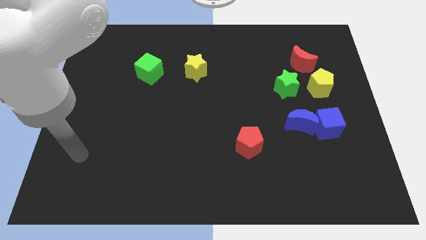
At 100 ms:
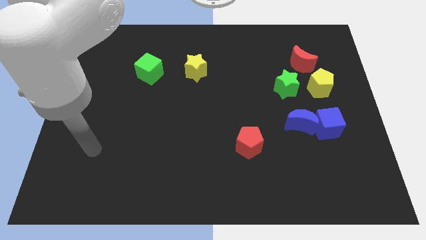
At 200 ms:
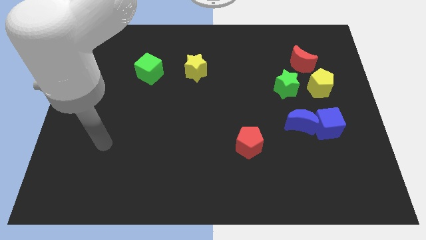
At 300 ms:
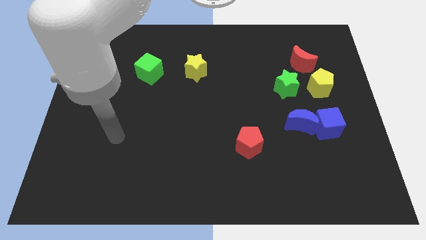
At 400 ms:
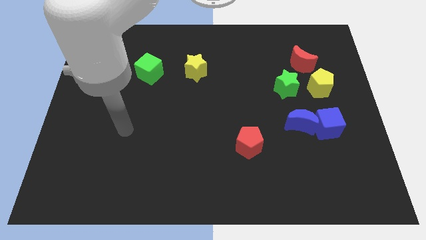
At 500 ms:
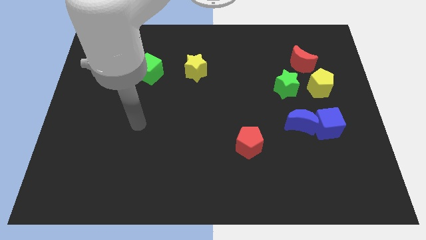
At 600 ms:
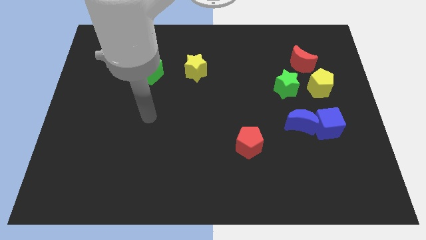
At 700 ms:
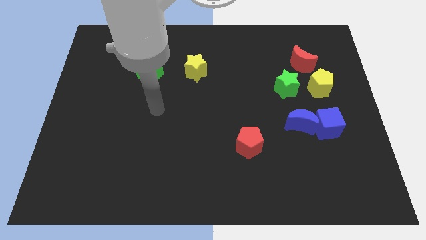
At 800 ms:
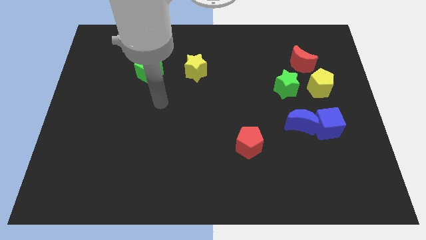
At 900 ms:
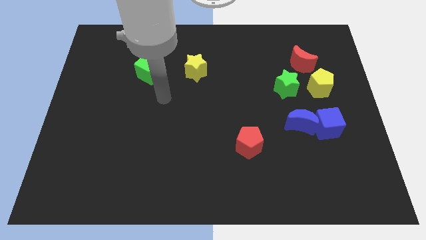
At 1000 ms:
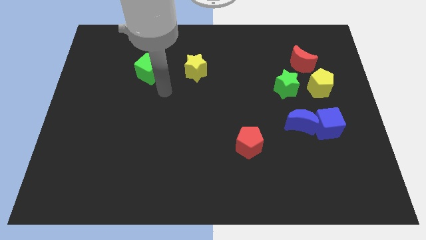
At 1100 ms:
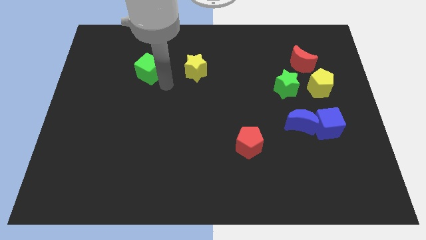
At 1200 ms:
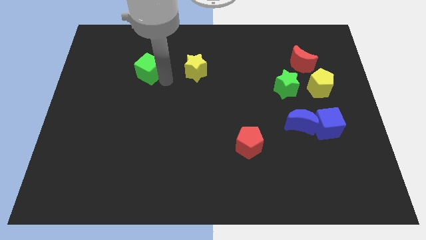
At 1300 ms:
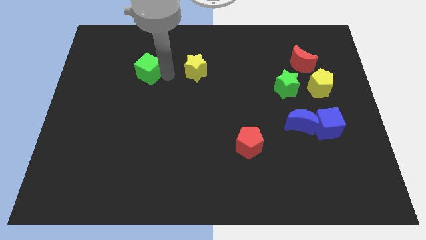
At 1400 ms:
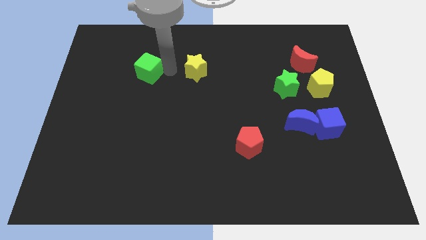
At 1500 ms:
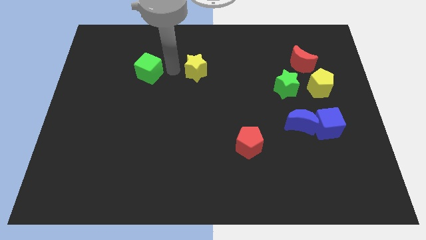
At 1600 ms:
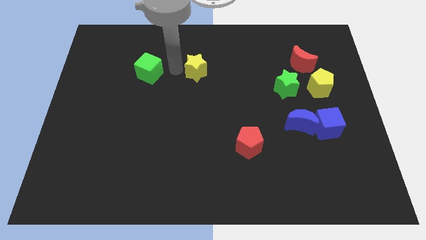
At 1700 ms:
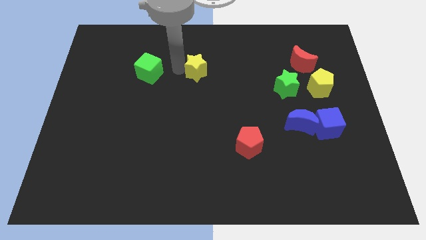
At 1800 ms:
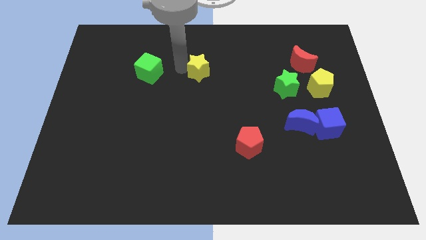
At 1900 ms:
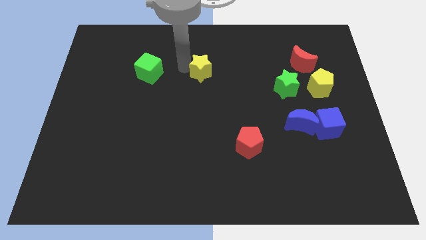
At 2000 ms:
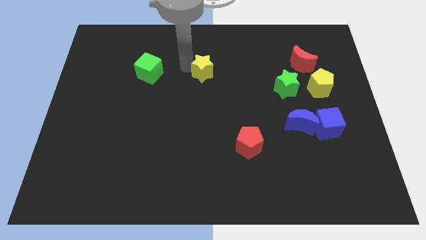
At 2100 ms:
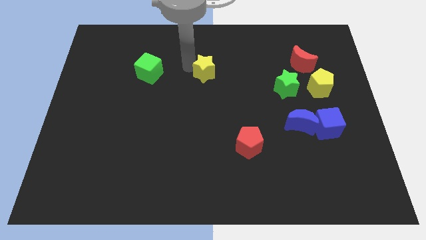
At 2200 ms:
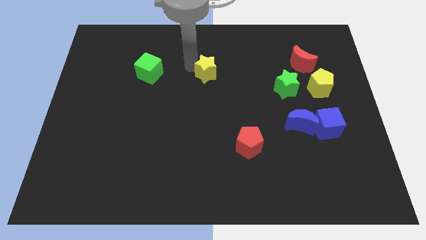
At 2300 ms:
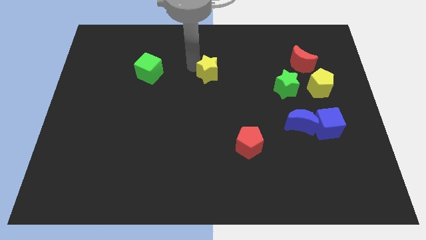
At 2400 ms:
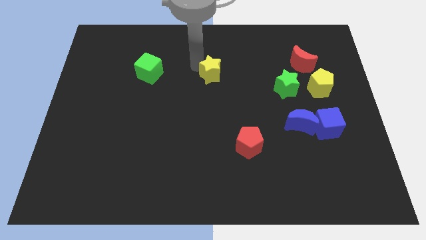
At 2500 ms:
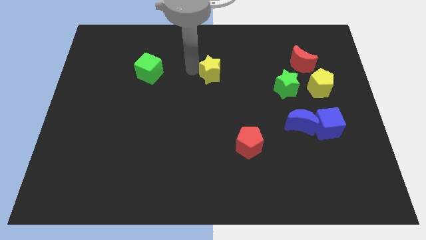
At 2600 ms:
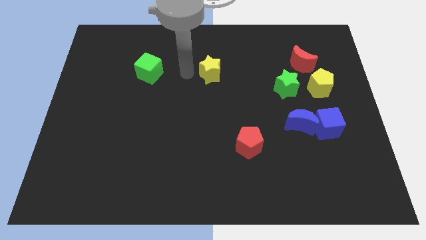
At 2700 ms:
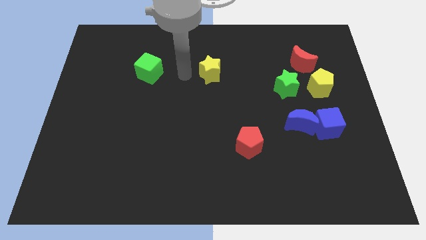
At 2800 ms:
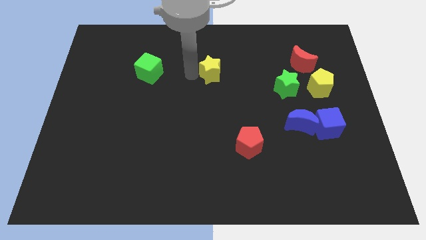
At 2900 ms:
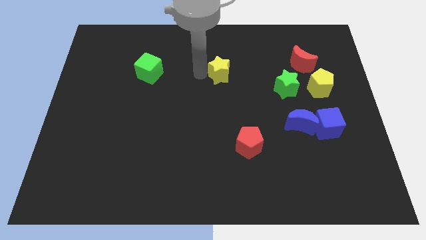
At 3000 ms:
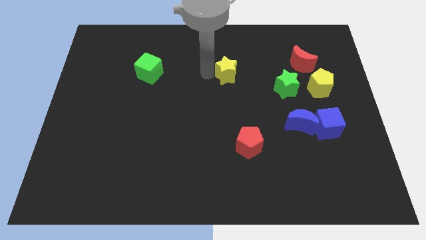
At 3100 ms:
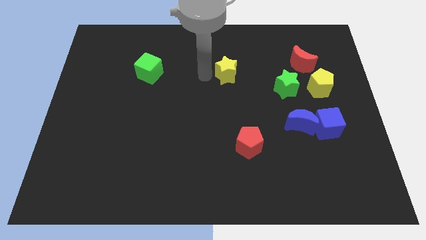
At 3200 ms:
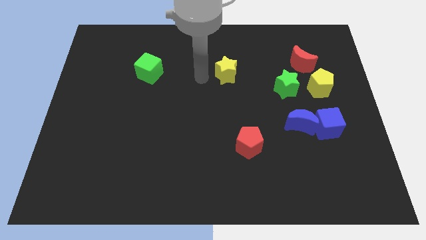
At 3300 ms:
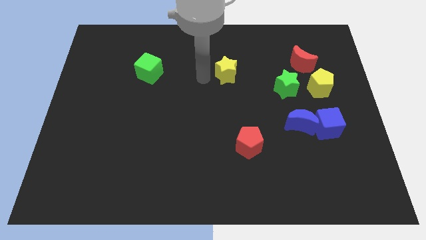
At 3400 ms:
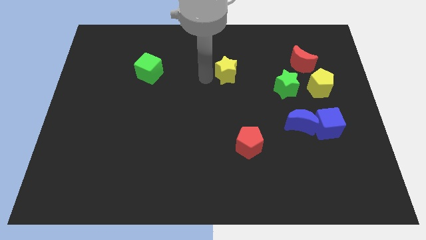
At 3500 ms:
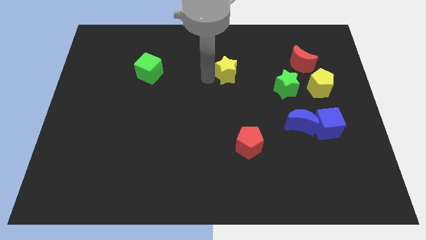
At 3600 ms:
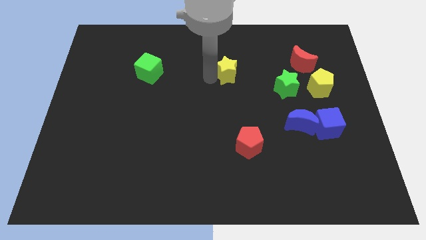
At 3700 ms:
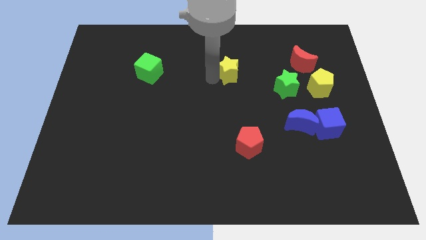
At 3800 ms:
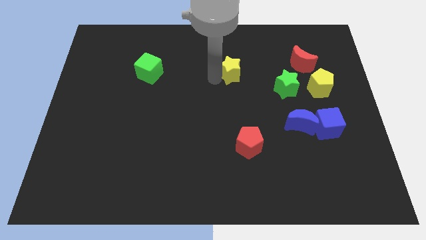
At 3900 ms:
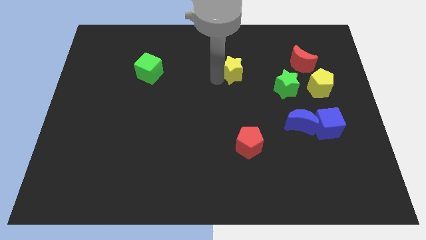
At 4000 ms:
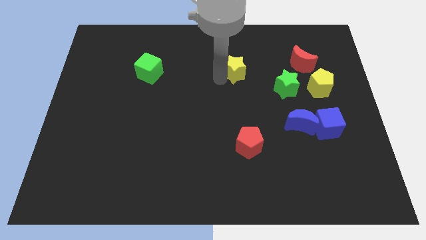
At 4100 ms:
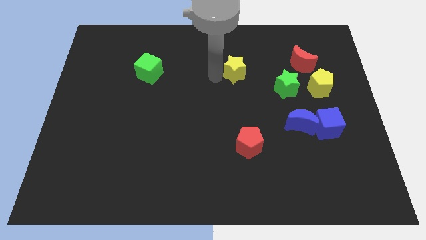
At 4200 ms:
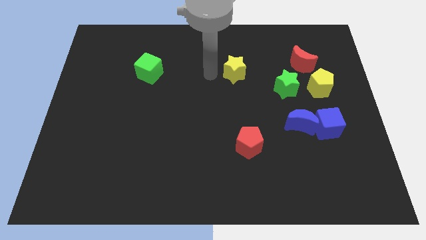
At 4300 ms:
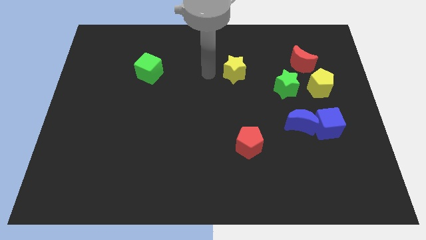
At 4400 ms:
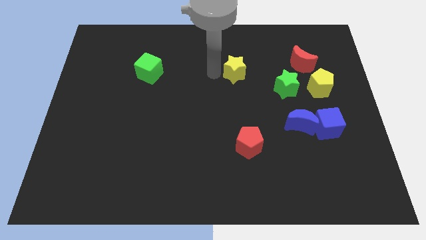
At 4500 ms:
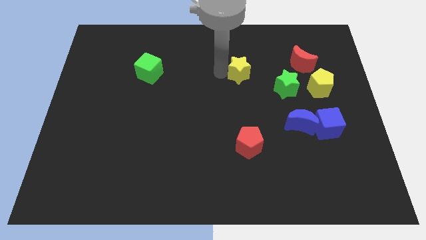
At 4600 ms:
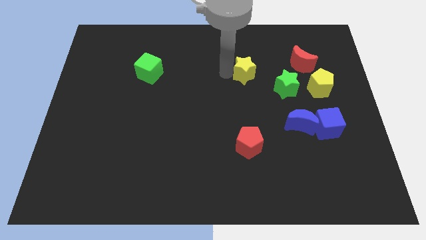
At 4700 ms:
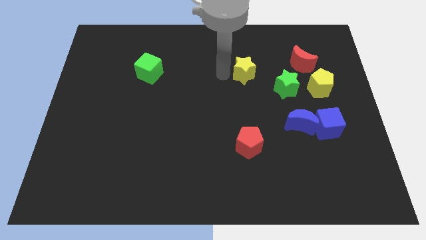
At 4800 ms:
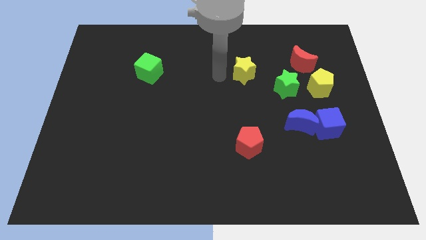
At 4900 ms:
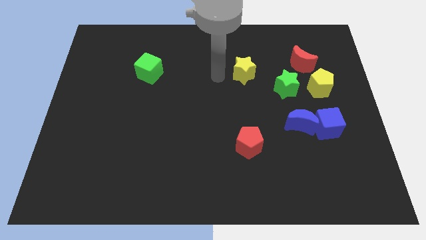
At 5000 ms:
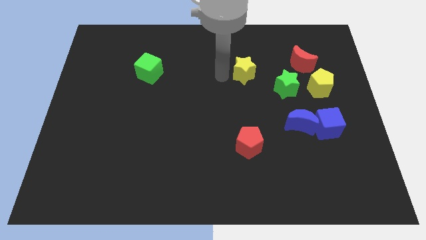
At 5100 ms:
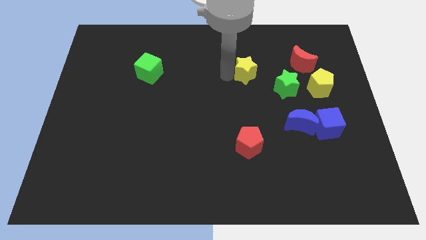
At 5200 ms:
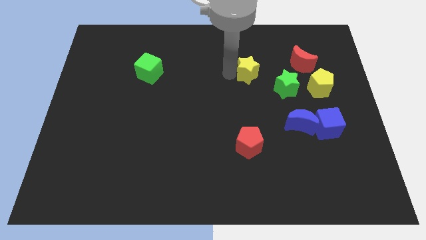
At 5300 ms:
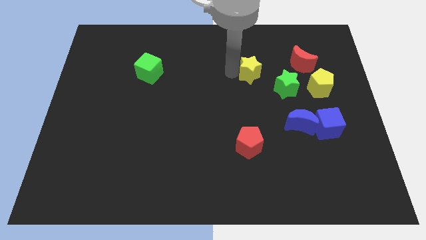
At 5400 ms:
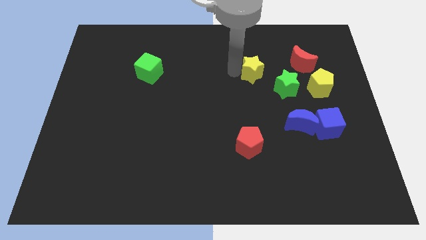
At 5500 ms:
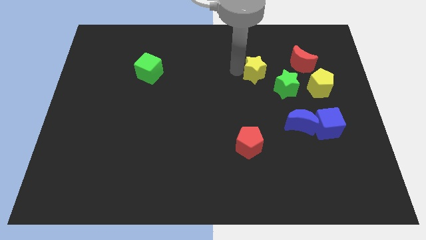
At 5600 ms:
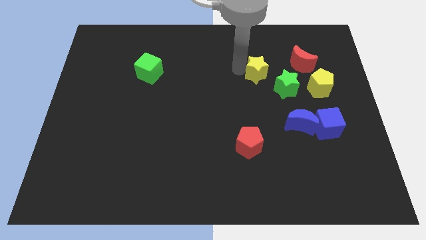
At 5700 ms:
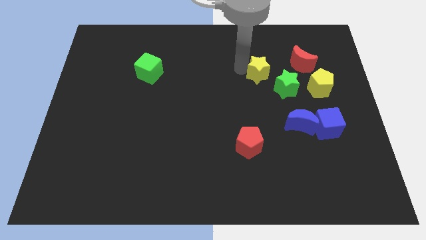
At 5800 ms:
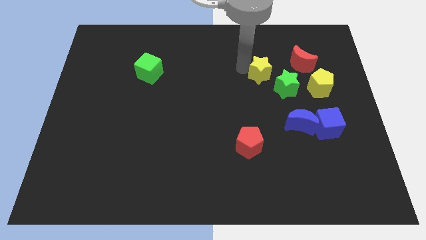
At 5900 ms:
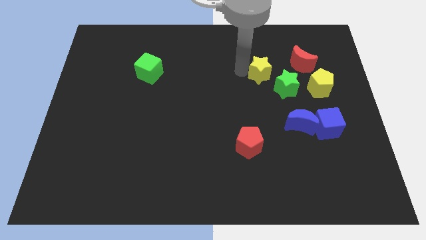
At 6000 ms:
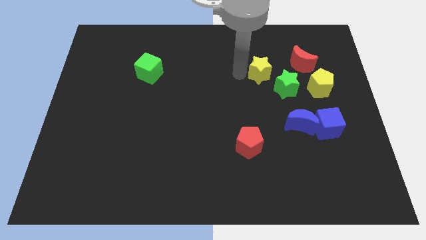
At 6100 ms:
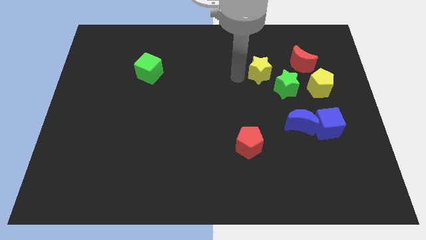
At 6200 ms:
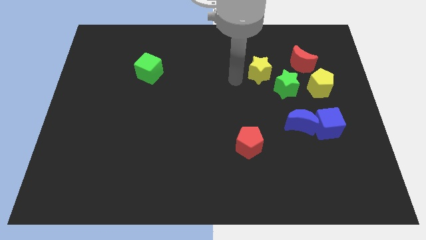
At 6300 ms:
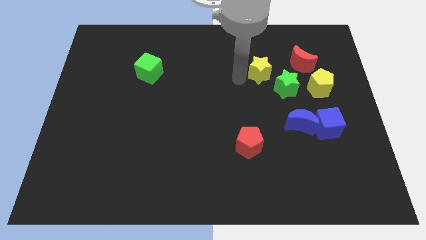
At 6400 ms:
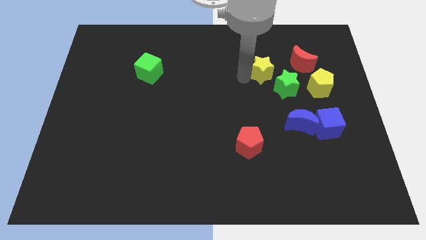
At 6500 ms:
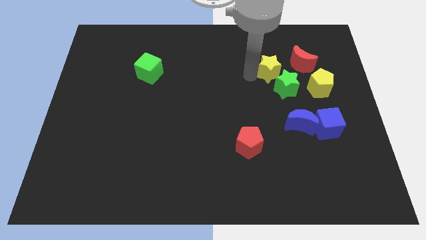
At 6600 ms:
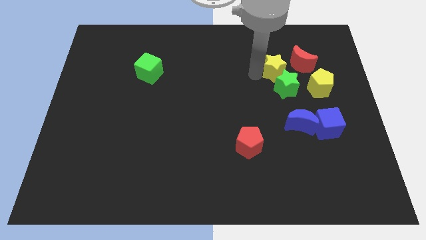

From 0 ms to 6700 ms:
slide the yellow star right

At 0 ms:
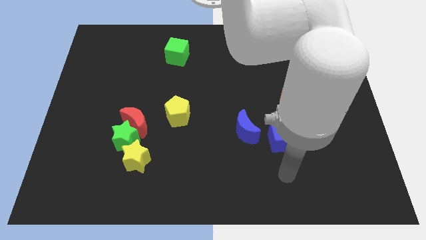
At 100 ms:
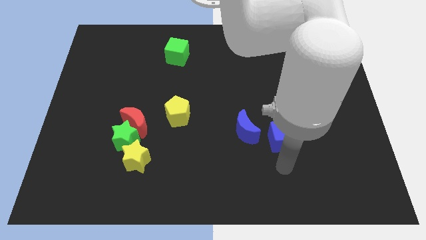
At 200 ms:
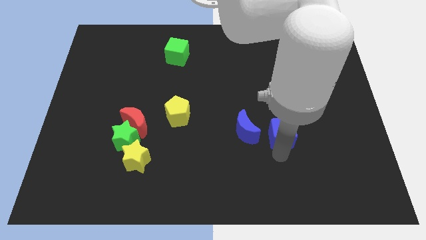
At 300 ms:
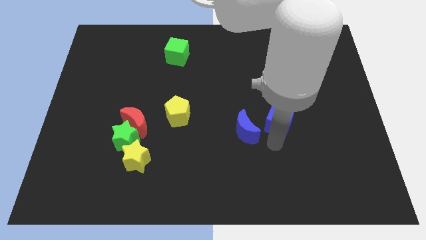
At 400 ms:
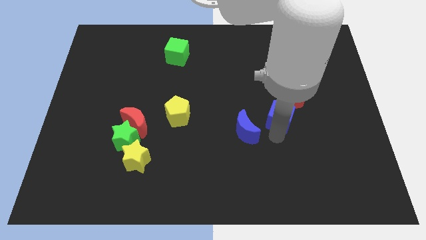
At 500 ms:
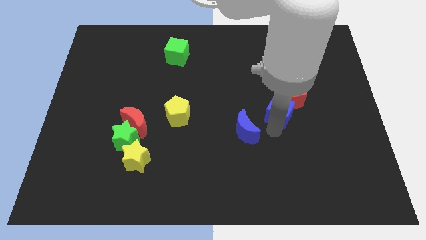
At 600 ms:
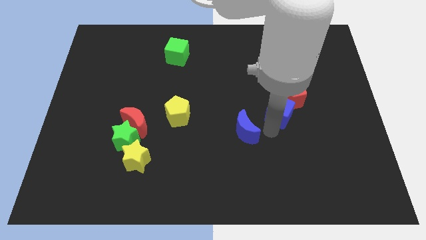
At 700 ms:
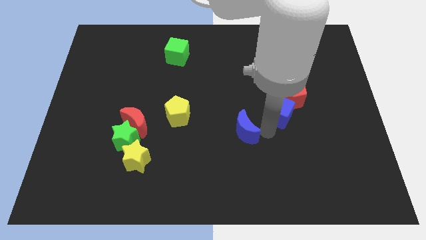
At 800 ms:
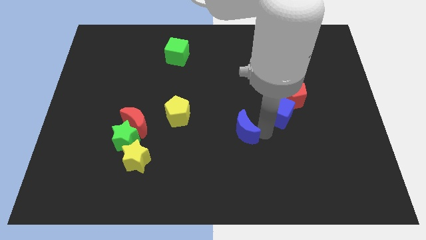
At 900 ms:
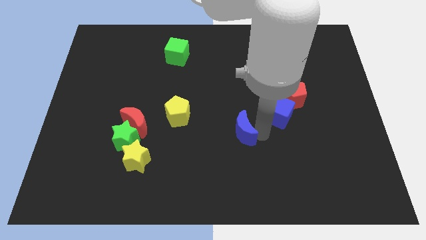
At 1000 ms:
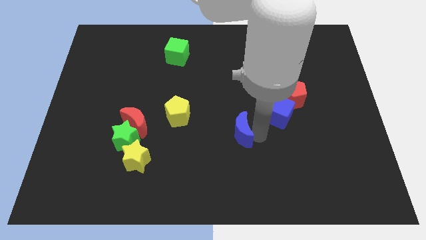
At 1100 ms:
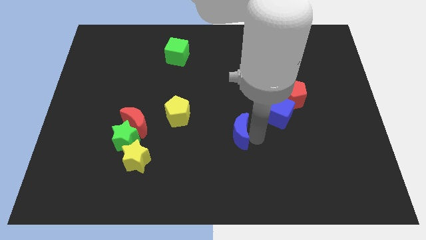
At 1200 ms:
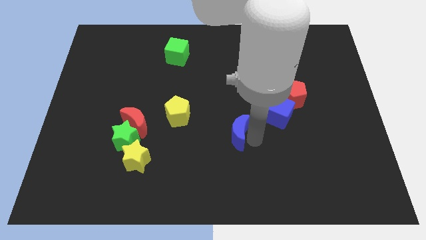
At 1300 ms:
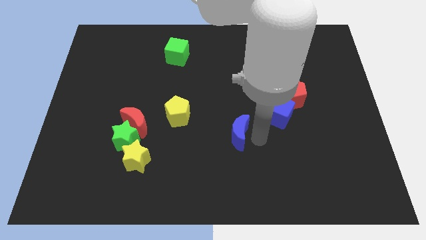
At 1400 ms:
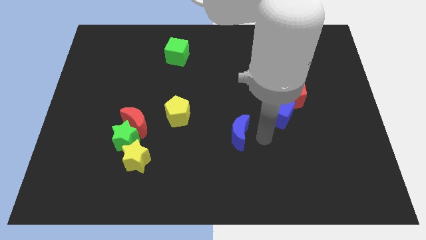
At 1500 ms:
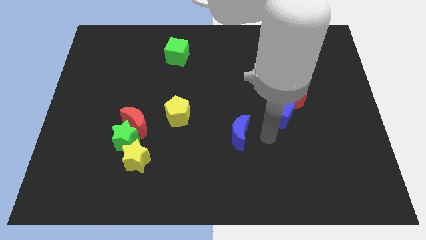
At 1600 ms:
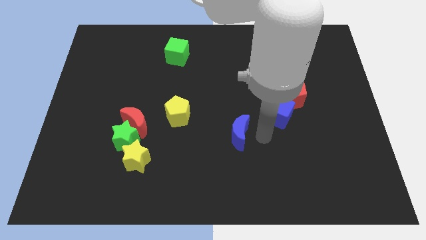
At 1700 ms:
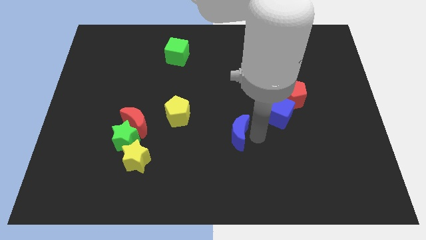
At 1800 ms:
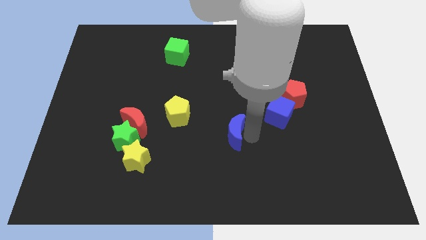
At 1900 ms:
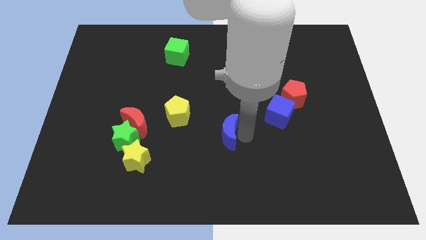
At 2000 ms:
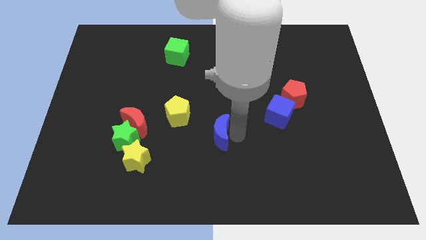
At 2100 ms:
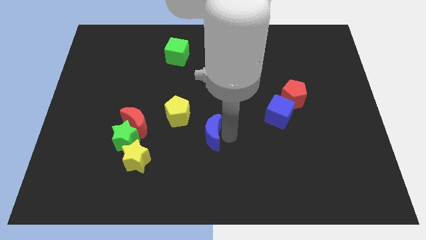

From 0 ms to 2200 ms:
slightly slide the blue moon left
